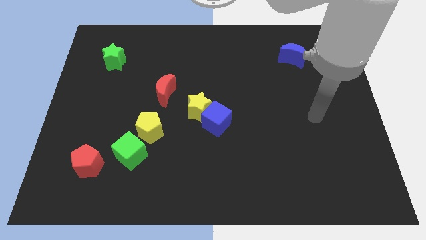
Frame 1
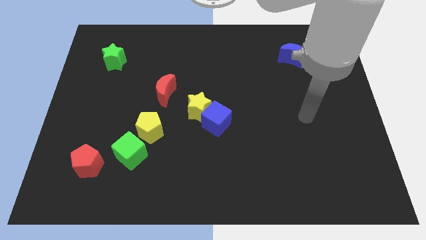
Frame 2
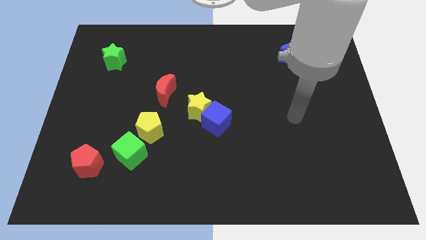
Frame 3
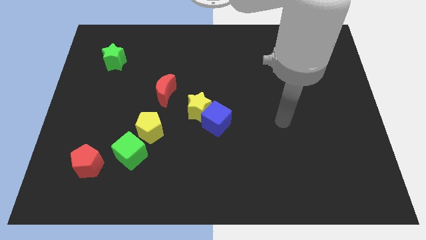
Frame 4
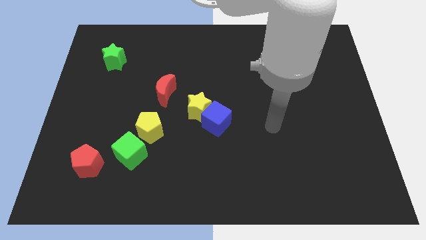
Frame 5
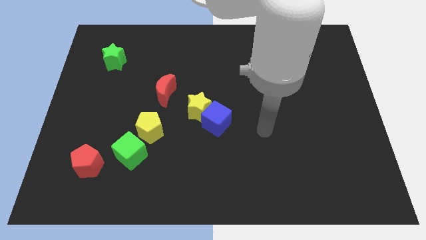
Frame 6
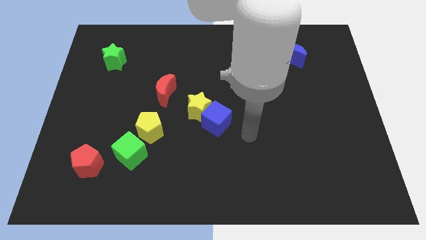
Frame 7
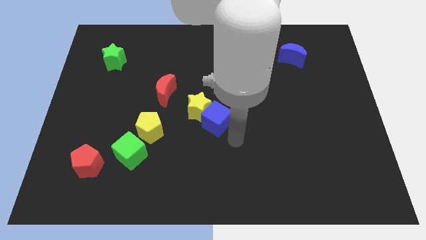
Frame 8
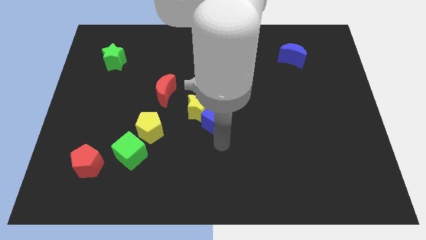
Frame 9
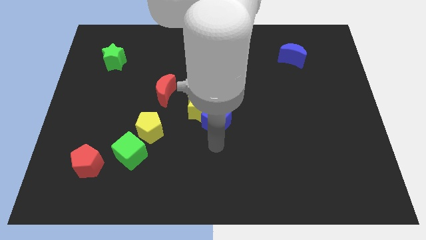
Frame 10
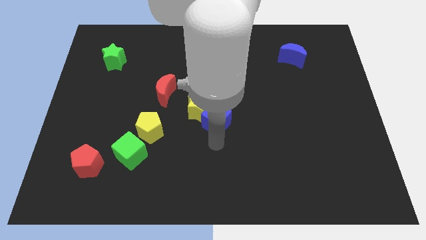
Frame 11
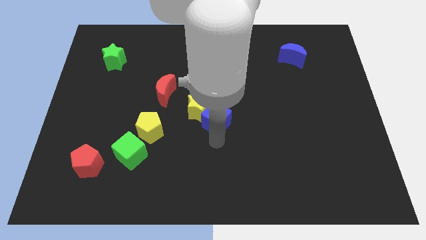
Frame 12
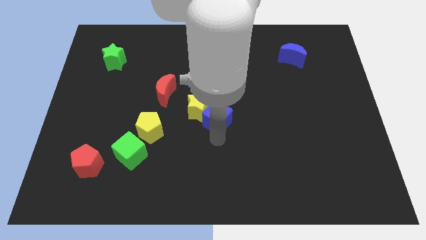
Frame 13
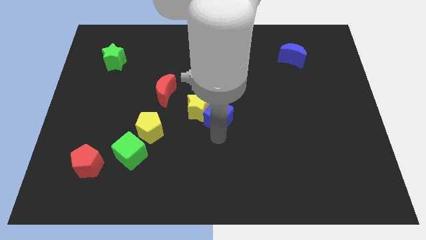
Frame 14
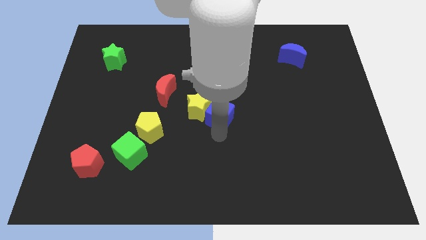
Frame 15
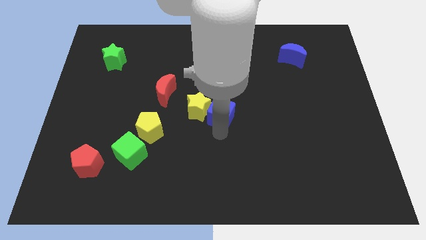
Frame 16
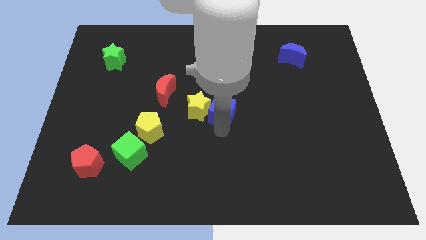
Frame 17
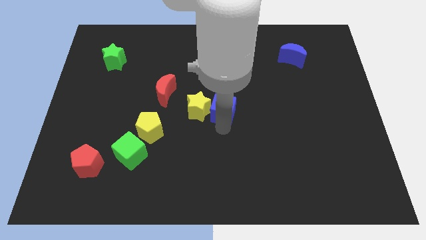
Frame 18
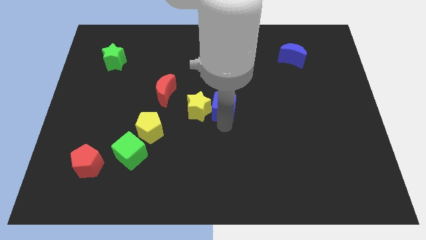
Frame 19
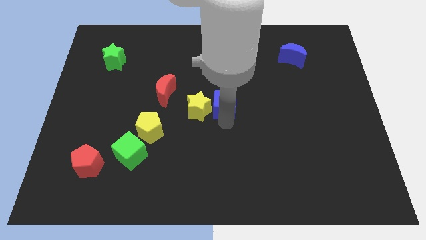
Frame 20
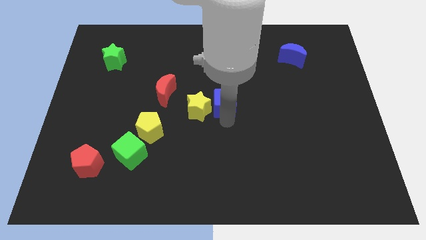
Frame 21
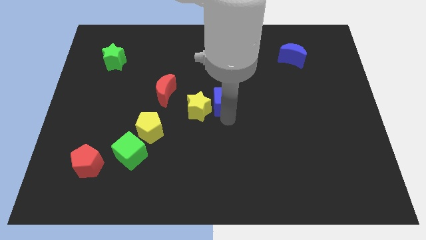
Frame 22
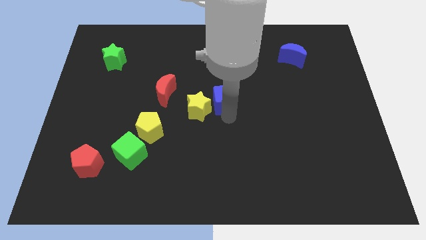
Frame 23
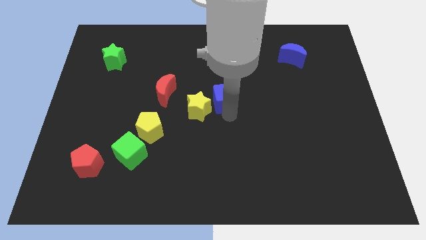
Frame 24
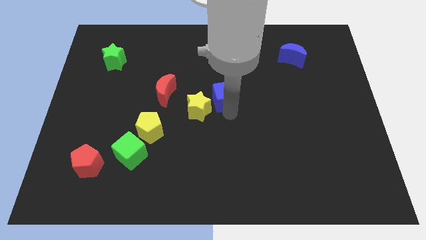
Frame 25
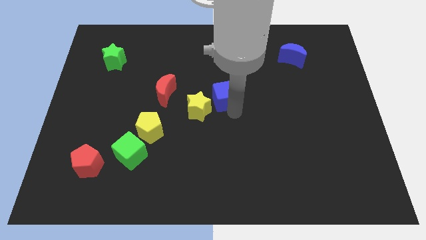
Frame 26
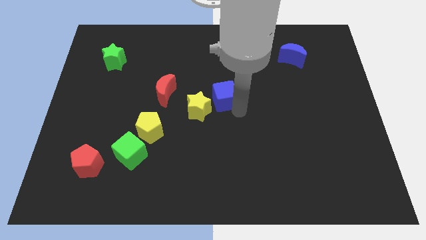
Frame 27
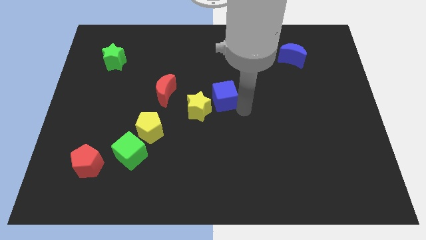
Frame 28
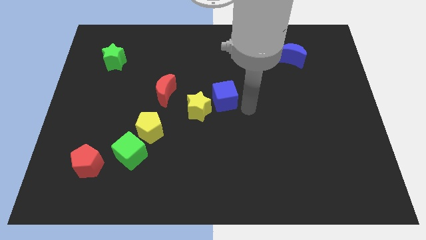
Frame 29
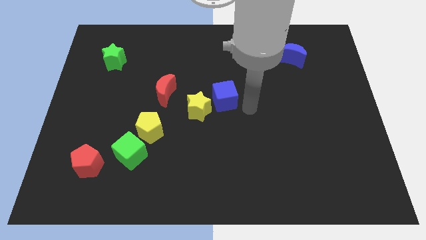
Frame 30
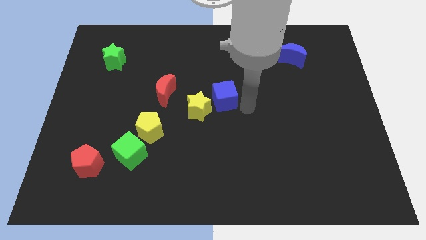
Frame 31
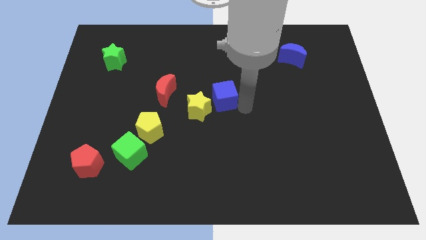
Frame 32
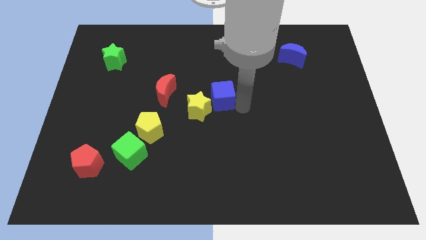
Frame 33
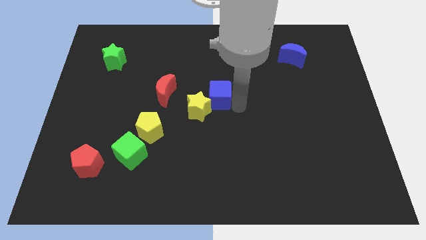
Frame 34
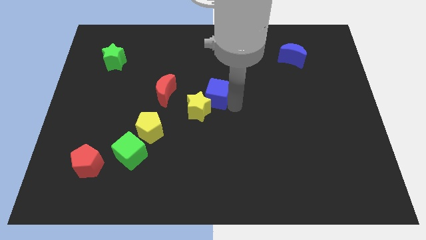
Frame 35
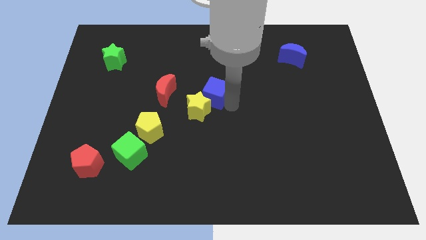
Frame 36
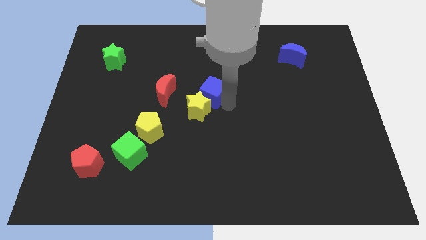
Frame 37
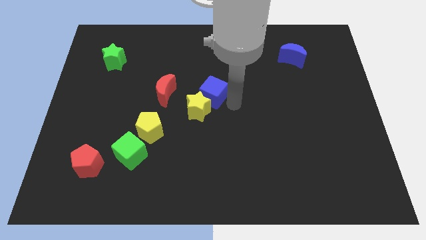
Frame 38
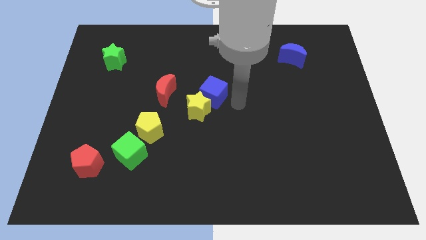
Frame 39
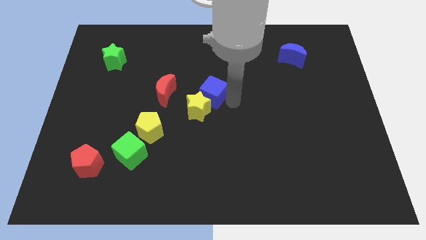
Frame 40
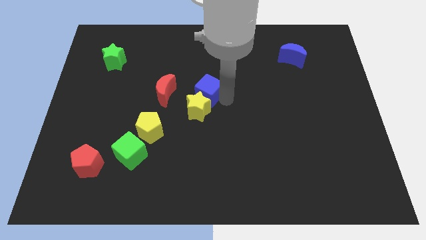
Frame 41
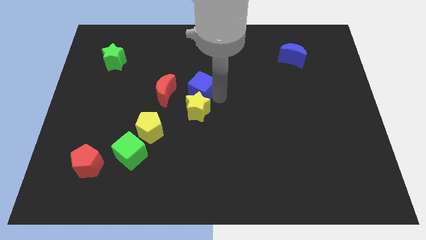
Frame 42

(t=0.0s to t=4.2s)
slightly slide the blue cube up and to the left

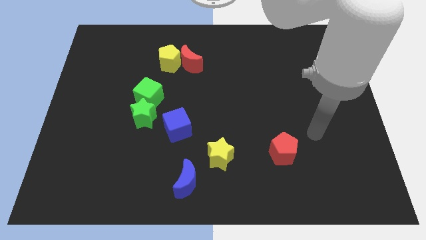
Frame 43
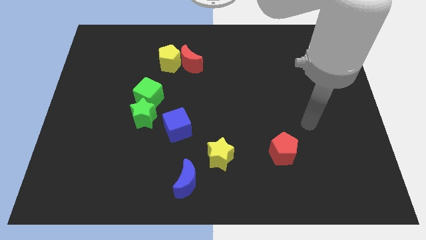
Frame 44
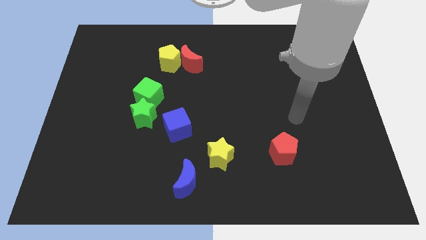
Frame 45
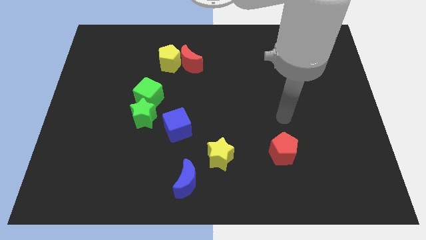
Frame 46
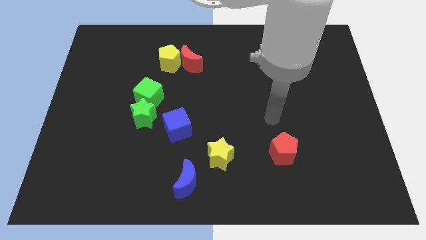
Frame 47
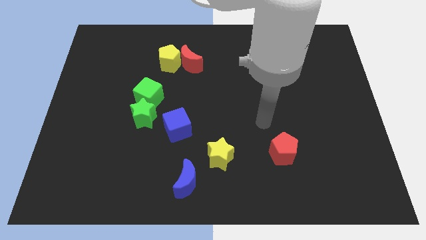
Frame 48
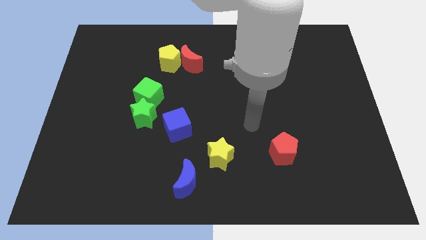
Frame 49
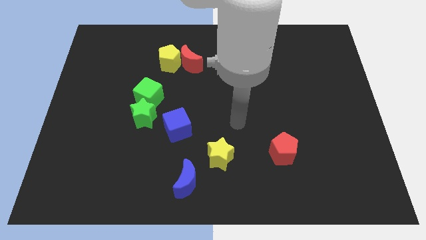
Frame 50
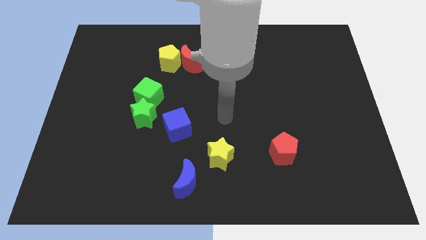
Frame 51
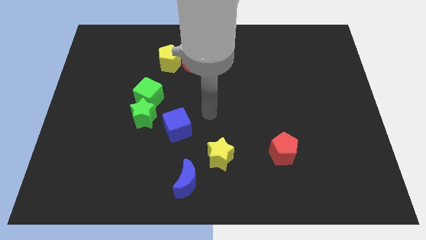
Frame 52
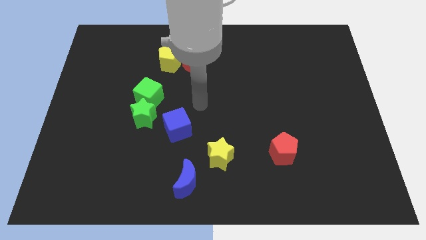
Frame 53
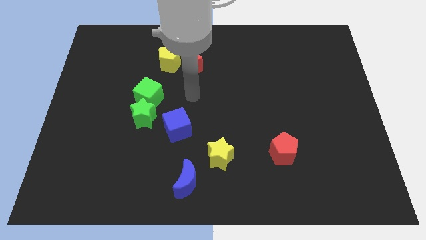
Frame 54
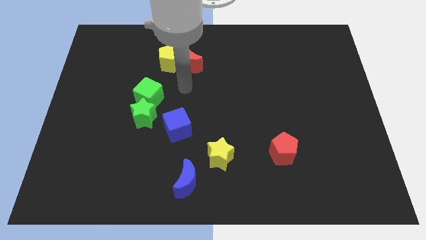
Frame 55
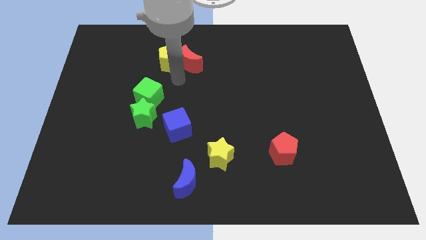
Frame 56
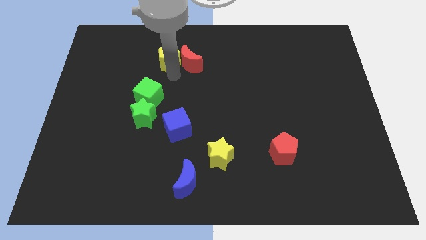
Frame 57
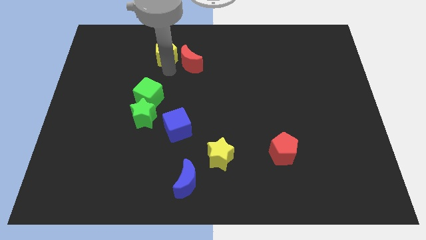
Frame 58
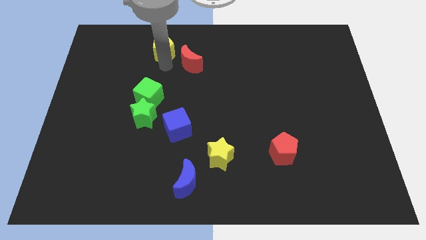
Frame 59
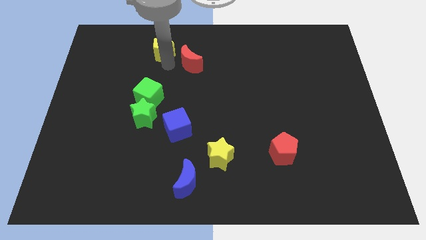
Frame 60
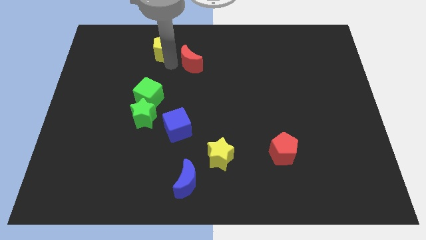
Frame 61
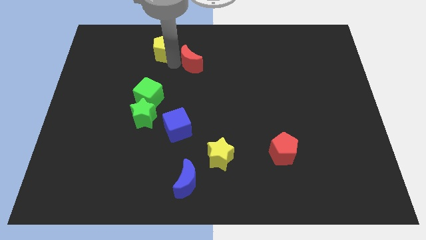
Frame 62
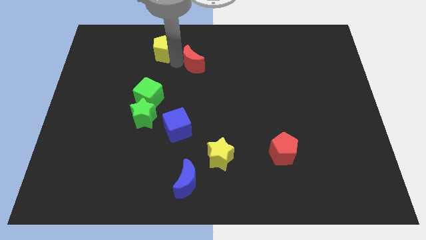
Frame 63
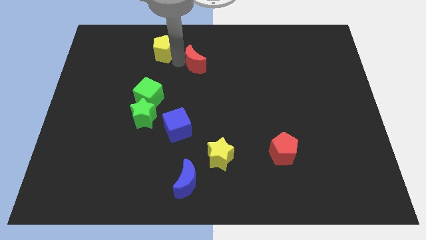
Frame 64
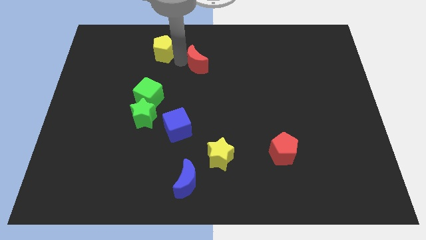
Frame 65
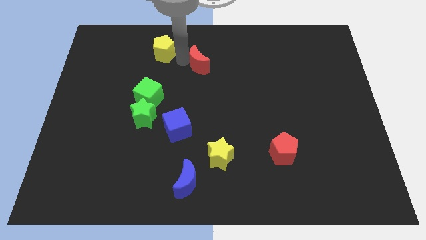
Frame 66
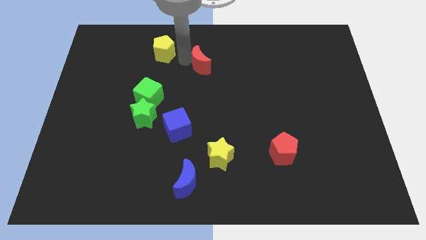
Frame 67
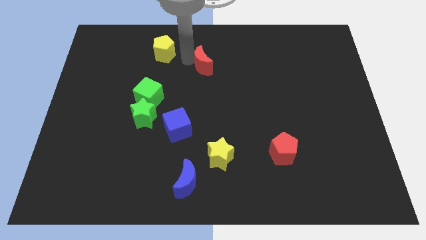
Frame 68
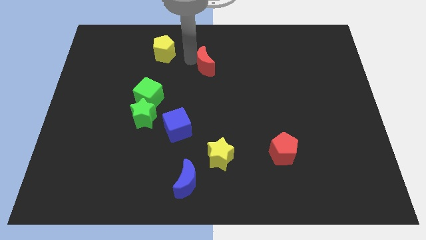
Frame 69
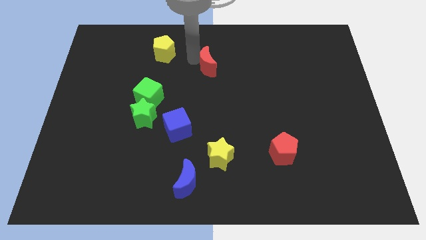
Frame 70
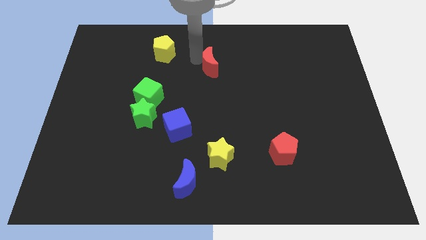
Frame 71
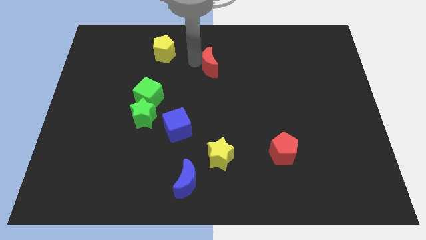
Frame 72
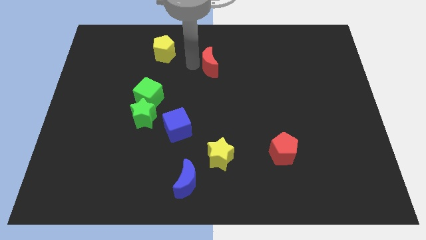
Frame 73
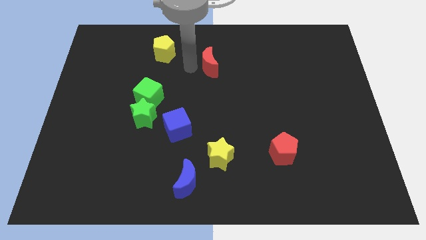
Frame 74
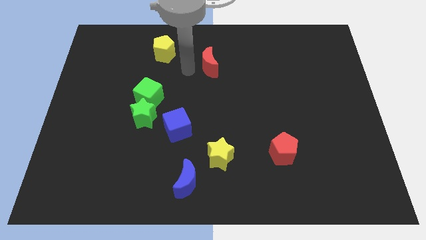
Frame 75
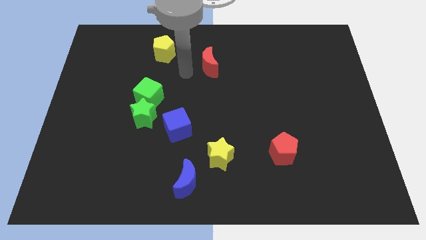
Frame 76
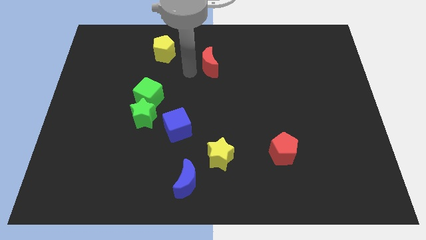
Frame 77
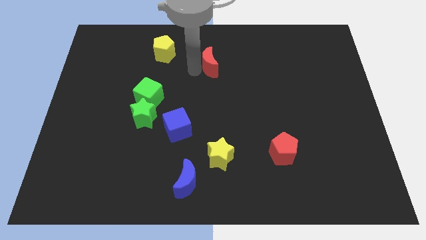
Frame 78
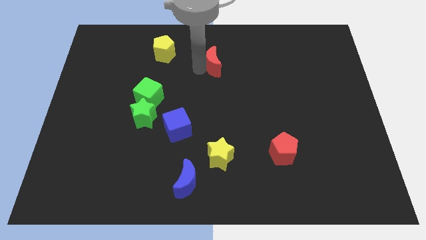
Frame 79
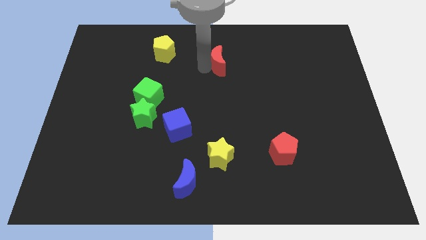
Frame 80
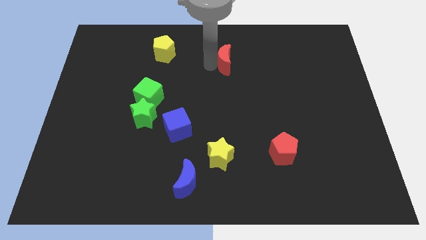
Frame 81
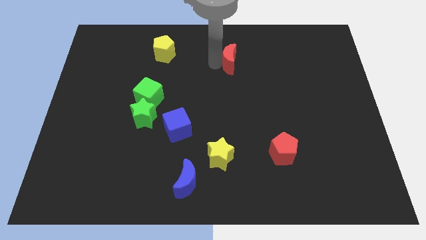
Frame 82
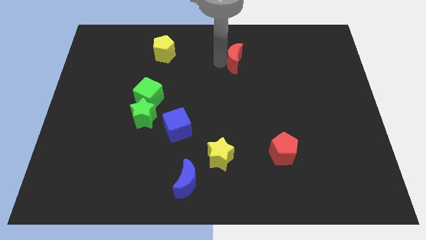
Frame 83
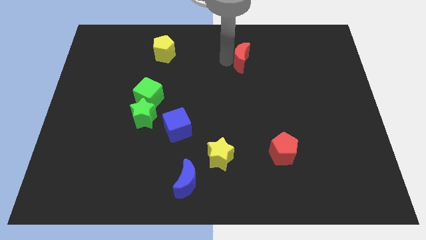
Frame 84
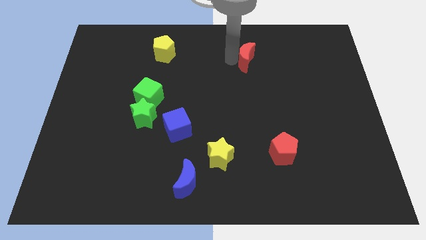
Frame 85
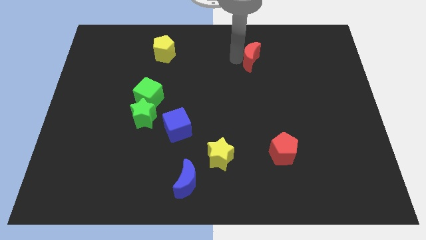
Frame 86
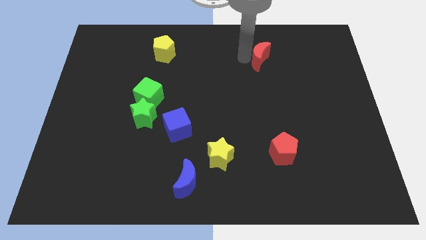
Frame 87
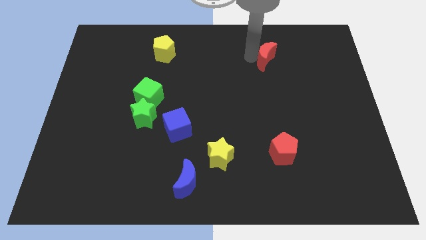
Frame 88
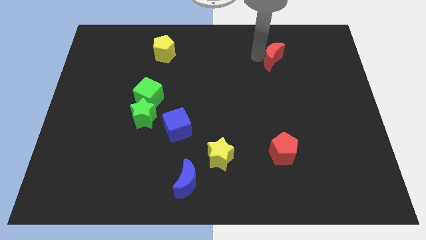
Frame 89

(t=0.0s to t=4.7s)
push the red moon to the right
